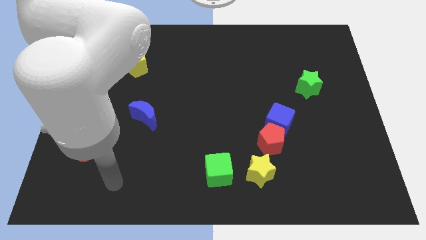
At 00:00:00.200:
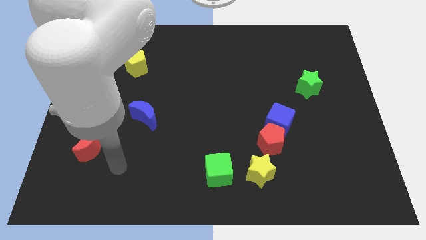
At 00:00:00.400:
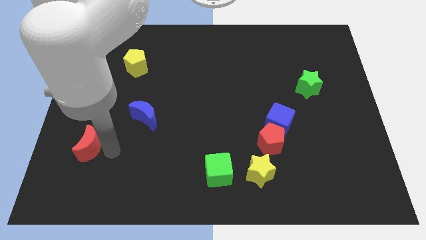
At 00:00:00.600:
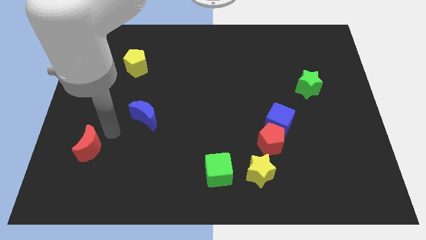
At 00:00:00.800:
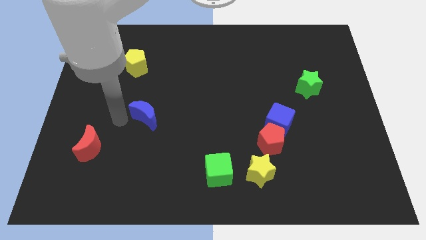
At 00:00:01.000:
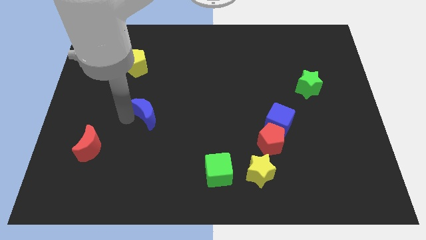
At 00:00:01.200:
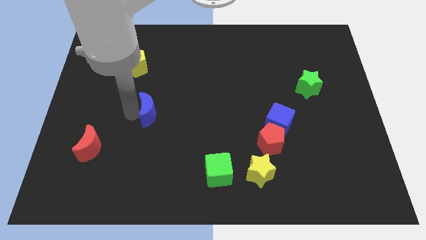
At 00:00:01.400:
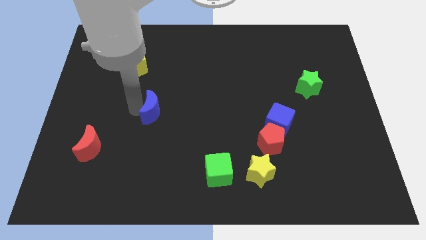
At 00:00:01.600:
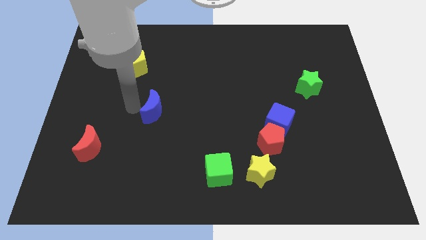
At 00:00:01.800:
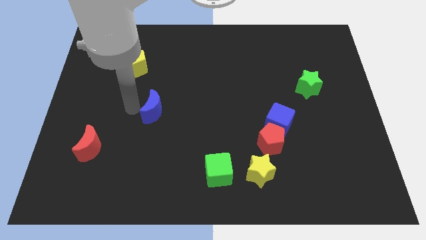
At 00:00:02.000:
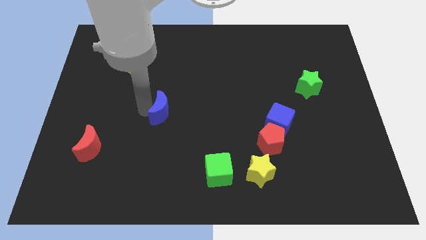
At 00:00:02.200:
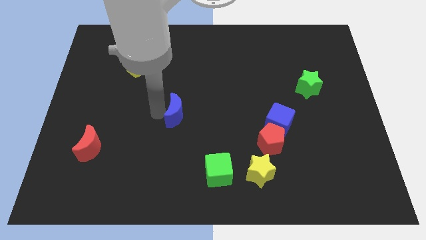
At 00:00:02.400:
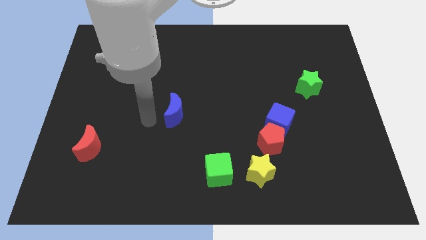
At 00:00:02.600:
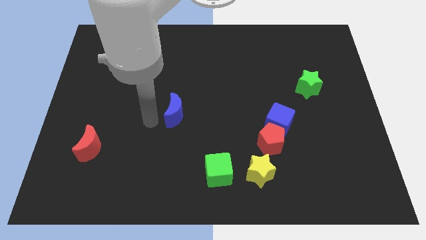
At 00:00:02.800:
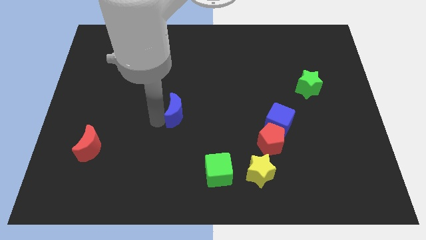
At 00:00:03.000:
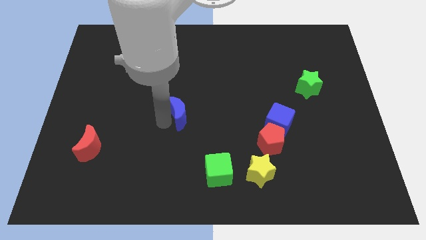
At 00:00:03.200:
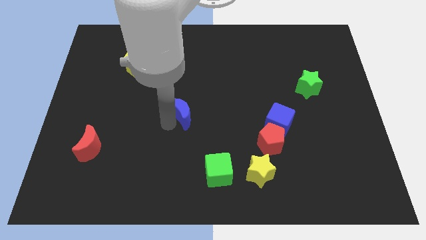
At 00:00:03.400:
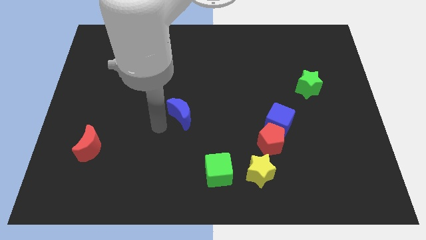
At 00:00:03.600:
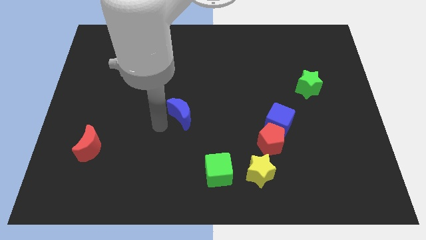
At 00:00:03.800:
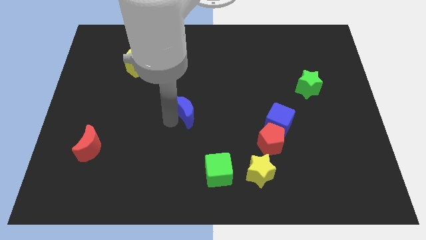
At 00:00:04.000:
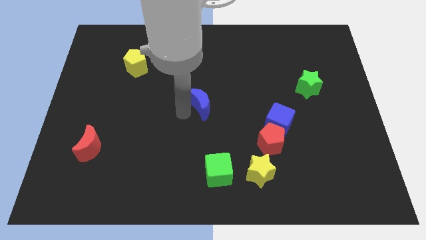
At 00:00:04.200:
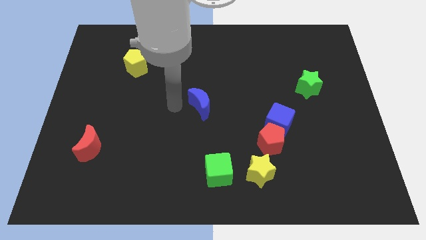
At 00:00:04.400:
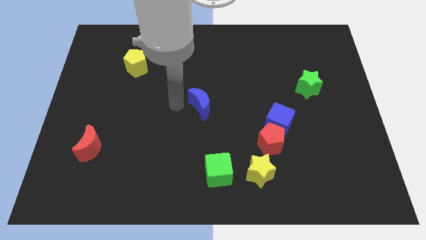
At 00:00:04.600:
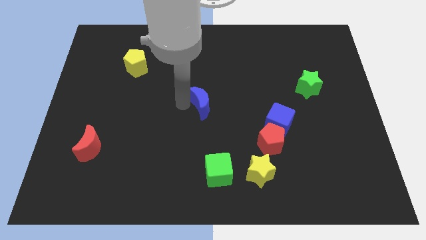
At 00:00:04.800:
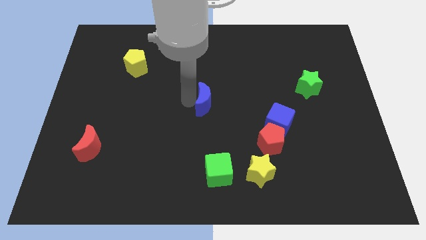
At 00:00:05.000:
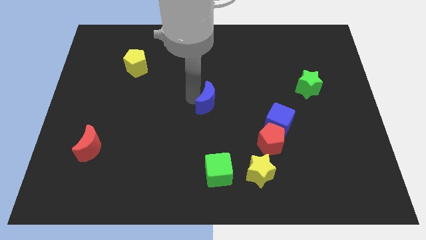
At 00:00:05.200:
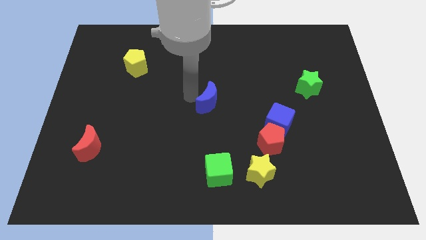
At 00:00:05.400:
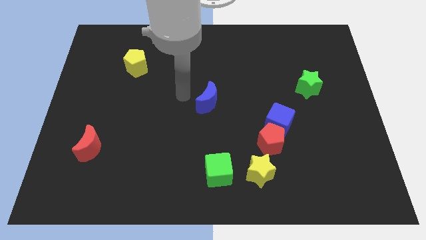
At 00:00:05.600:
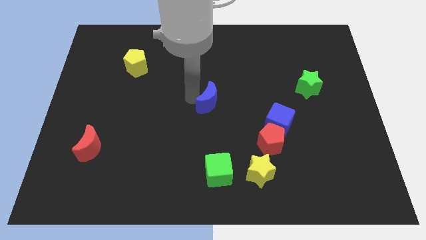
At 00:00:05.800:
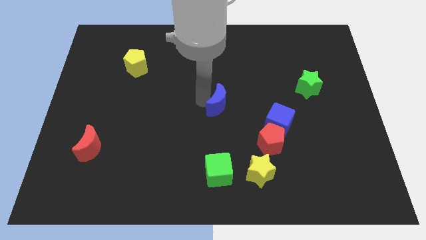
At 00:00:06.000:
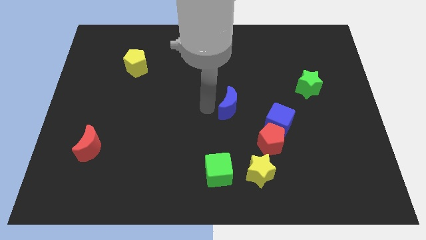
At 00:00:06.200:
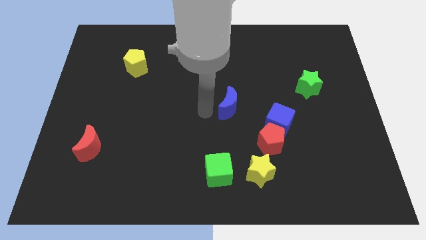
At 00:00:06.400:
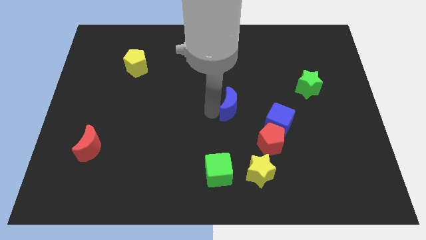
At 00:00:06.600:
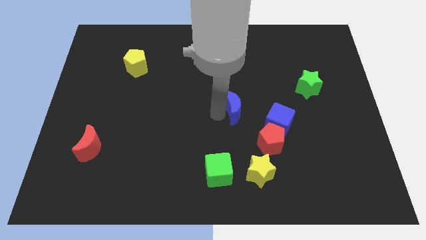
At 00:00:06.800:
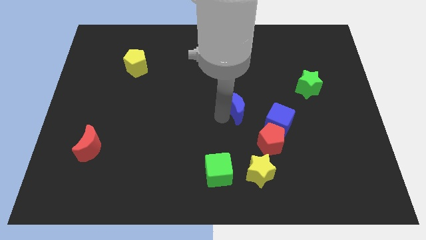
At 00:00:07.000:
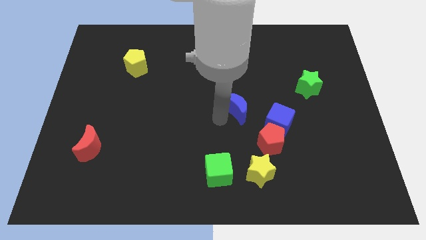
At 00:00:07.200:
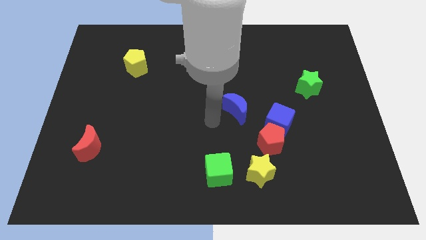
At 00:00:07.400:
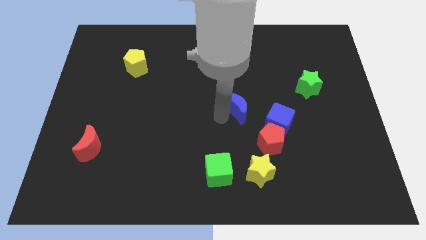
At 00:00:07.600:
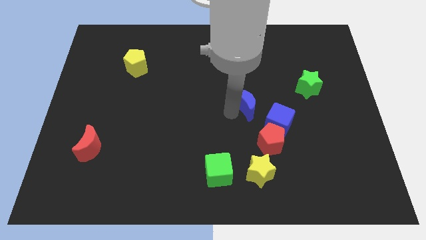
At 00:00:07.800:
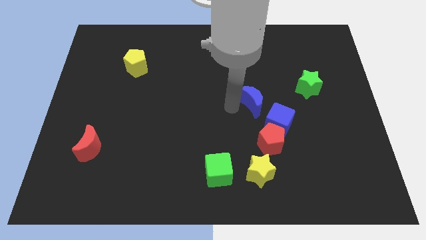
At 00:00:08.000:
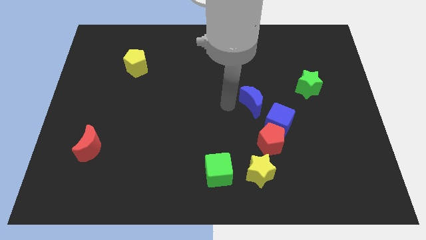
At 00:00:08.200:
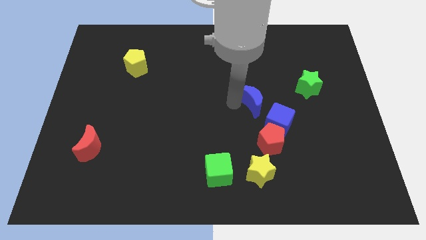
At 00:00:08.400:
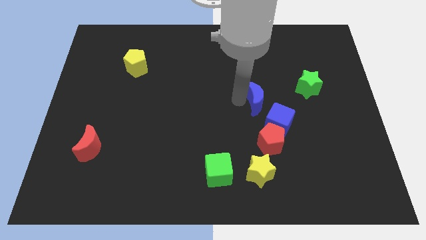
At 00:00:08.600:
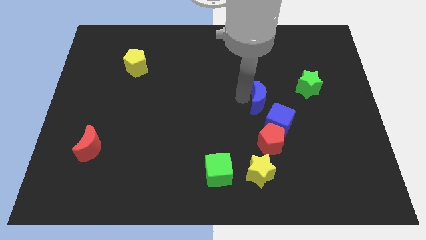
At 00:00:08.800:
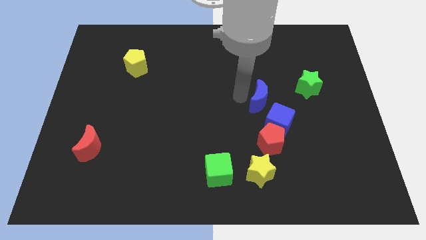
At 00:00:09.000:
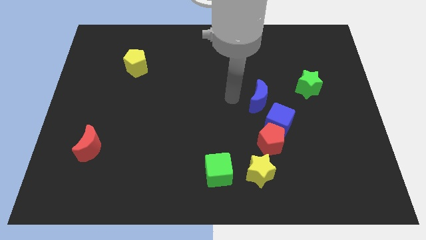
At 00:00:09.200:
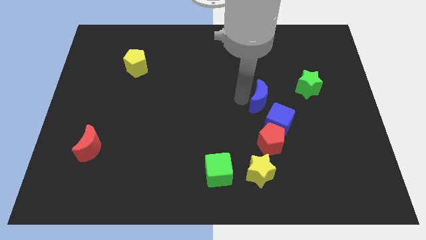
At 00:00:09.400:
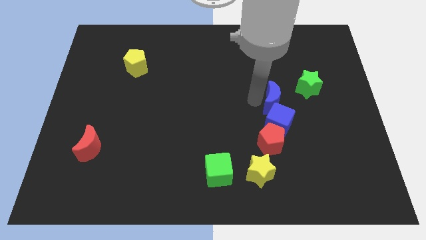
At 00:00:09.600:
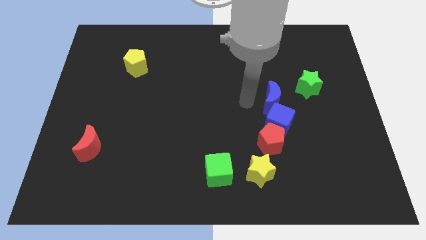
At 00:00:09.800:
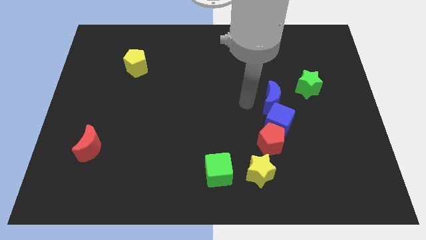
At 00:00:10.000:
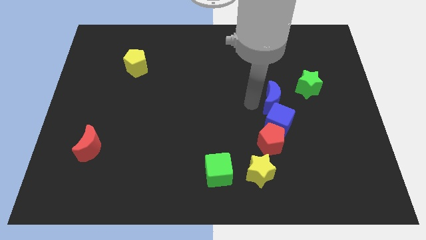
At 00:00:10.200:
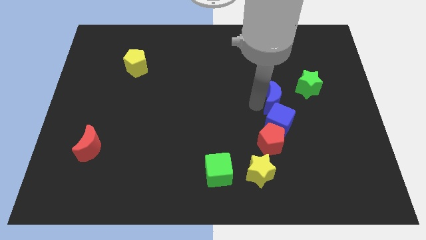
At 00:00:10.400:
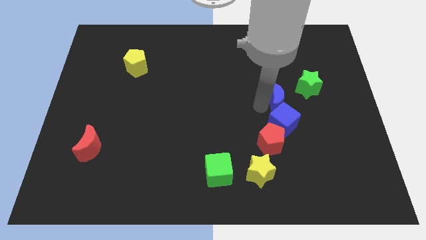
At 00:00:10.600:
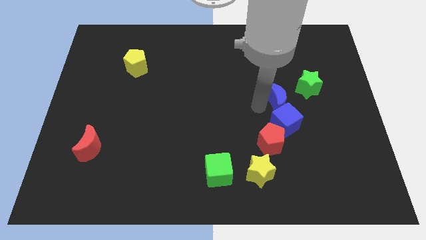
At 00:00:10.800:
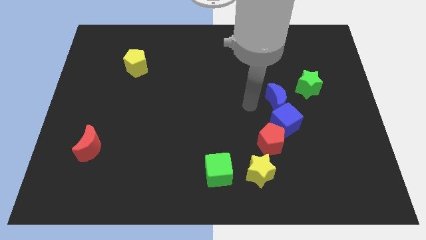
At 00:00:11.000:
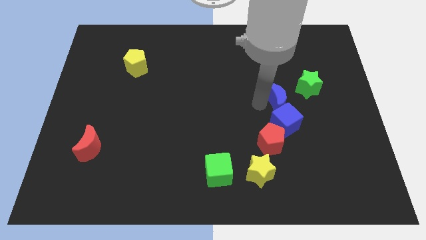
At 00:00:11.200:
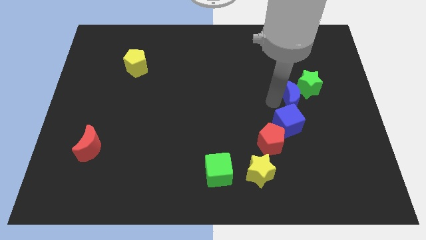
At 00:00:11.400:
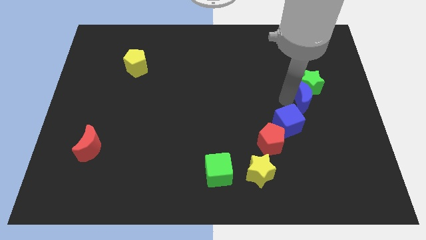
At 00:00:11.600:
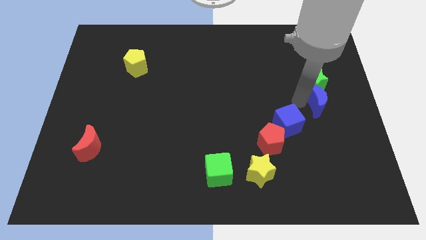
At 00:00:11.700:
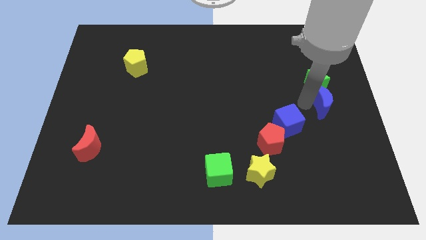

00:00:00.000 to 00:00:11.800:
push the blue moon to the center right
